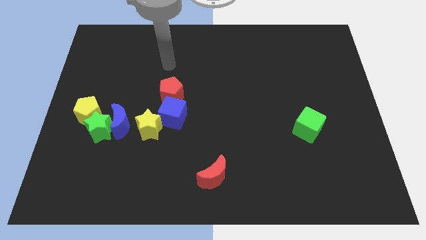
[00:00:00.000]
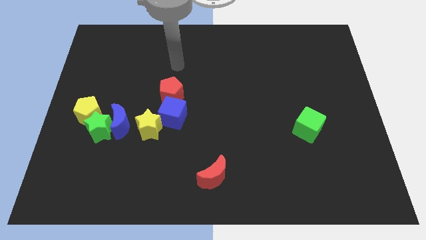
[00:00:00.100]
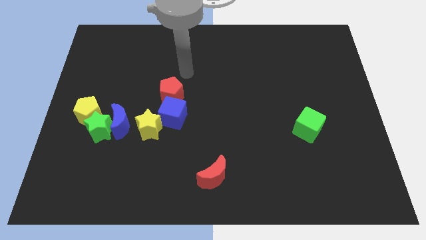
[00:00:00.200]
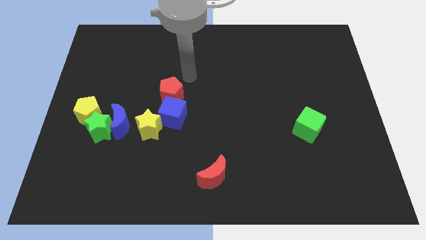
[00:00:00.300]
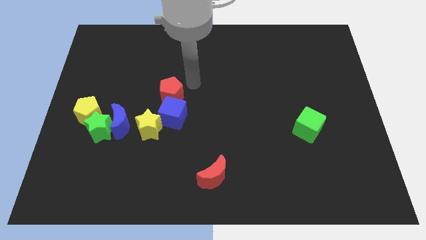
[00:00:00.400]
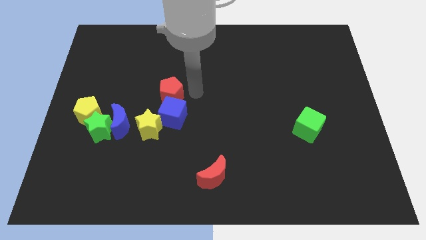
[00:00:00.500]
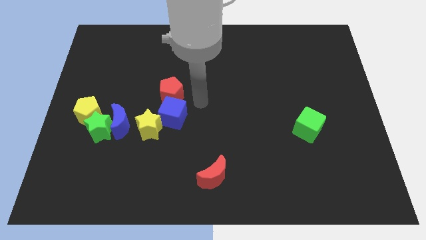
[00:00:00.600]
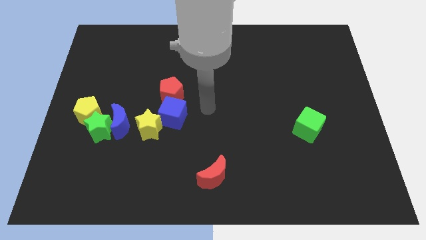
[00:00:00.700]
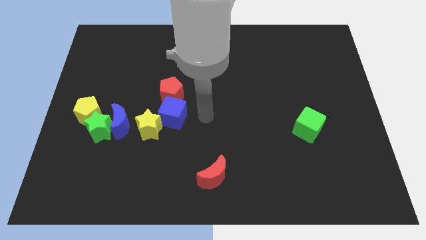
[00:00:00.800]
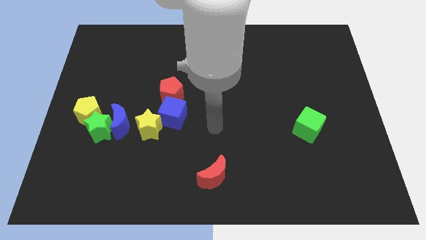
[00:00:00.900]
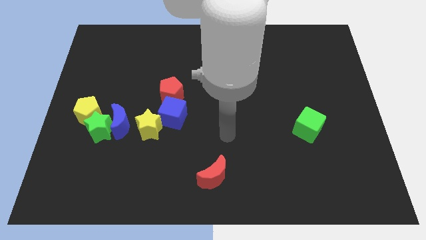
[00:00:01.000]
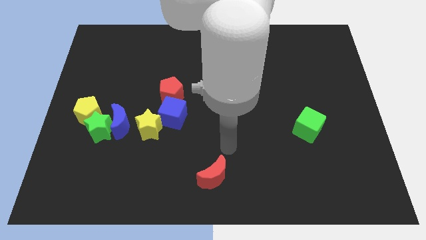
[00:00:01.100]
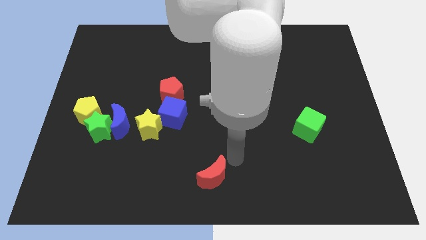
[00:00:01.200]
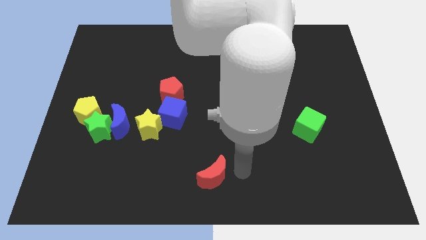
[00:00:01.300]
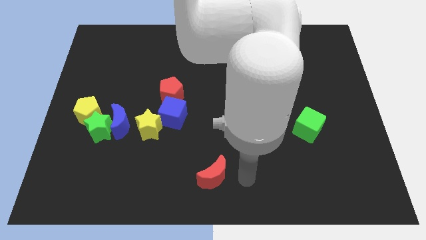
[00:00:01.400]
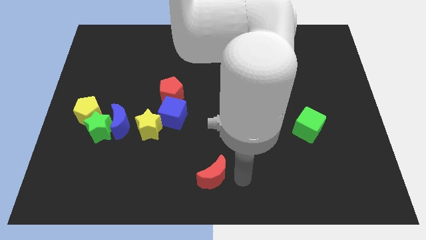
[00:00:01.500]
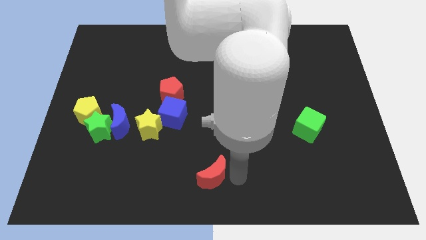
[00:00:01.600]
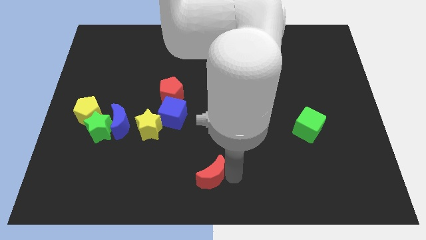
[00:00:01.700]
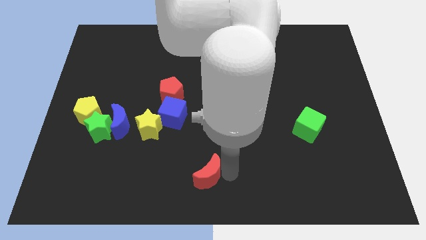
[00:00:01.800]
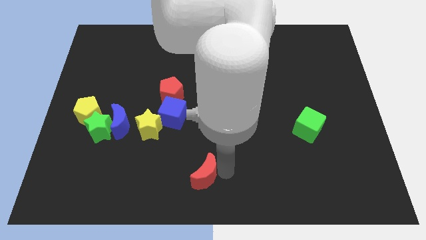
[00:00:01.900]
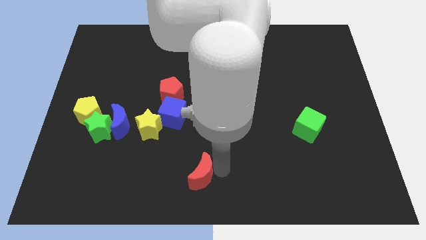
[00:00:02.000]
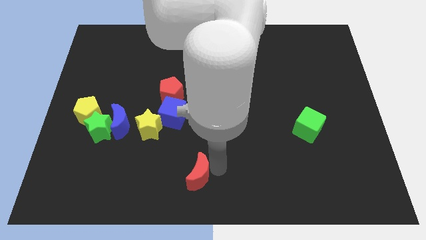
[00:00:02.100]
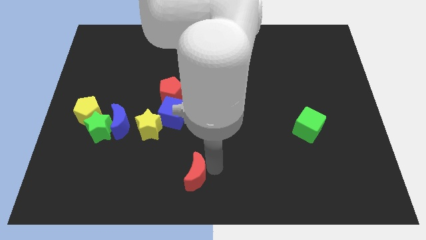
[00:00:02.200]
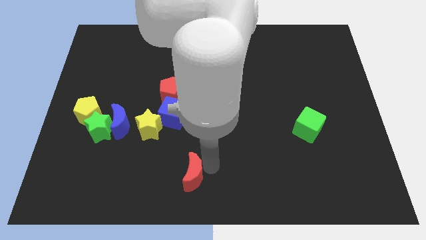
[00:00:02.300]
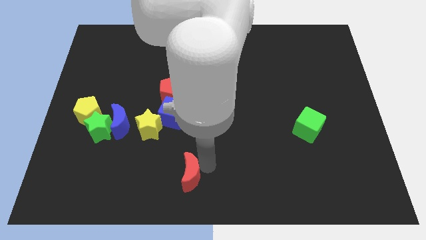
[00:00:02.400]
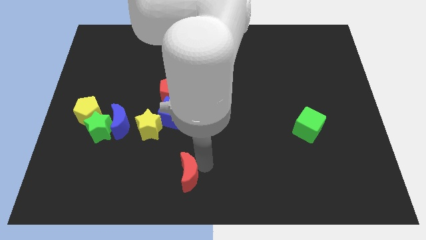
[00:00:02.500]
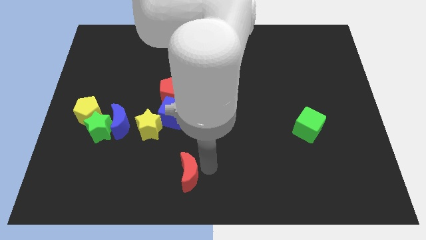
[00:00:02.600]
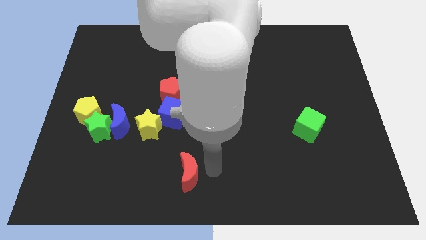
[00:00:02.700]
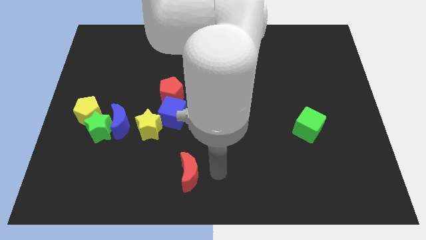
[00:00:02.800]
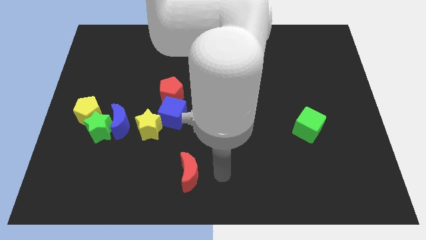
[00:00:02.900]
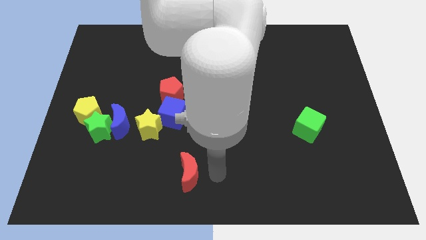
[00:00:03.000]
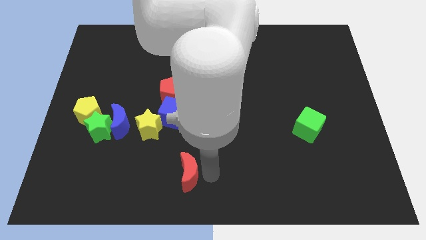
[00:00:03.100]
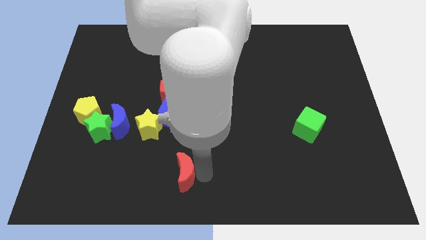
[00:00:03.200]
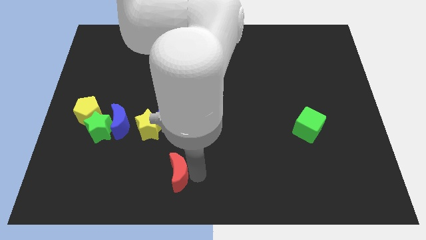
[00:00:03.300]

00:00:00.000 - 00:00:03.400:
push the red moon somewhat to the left

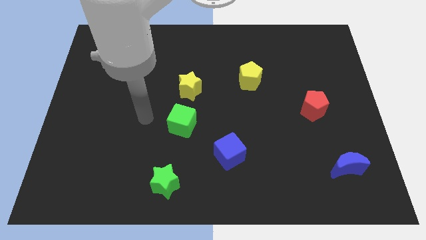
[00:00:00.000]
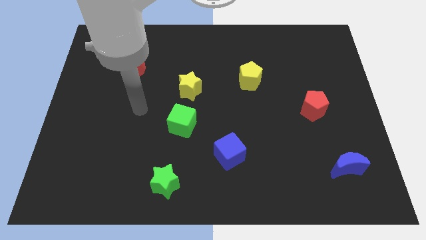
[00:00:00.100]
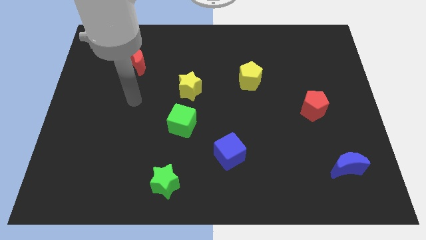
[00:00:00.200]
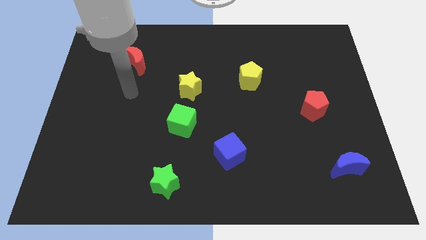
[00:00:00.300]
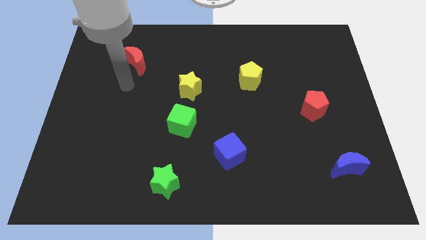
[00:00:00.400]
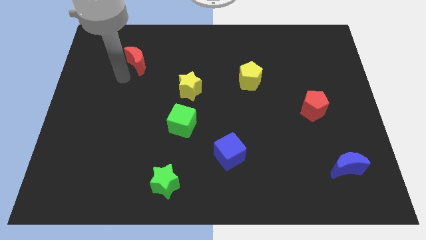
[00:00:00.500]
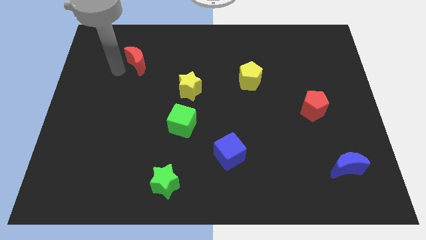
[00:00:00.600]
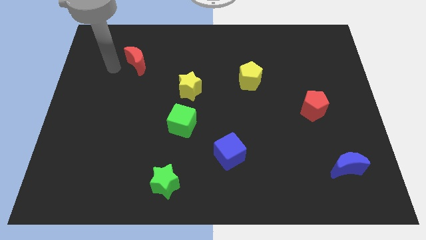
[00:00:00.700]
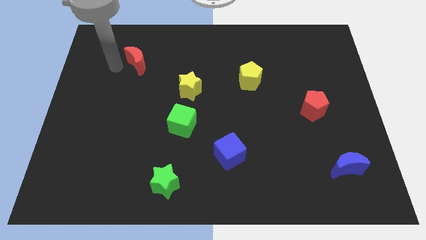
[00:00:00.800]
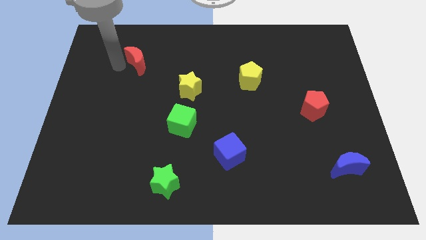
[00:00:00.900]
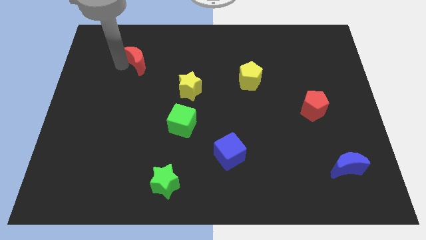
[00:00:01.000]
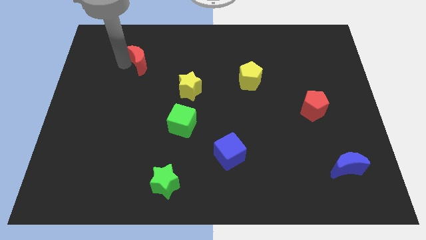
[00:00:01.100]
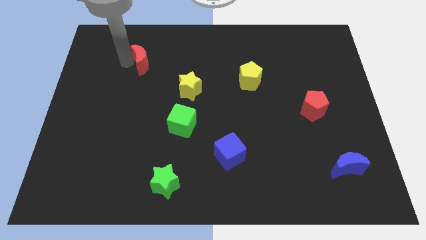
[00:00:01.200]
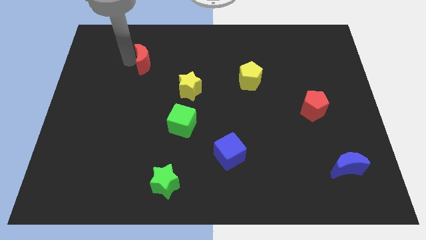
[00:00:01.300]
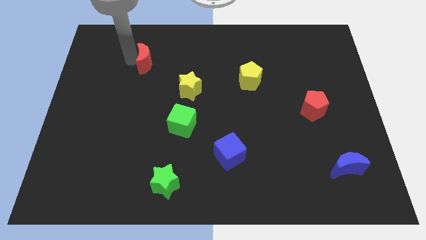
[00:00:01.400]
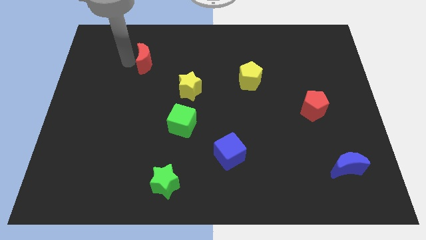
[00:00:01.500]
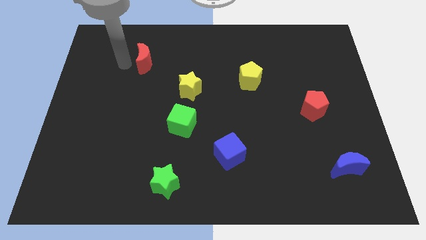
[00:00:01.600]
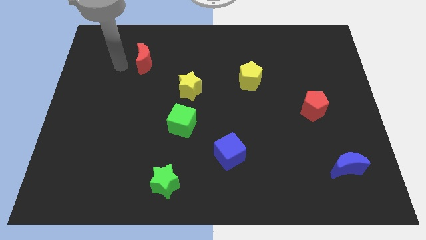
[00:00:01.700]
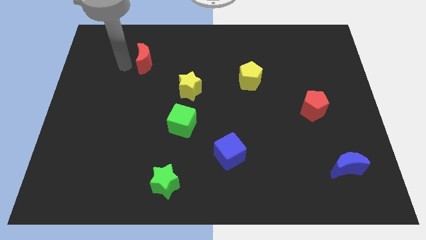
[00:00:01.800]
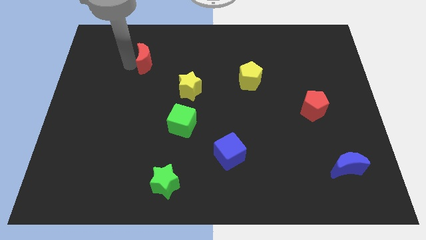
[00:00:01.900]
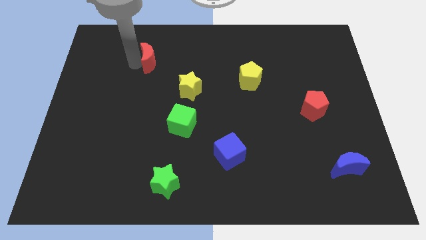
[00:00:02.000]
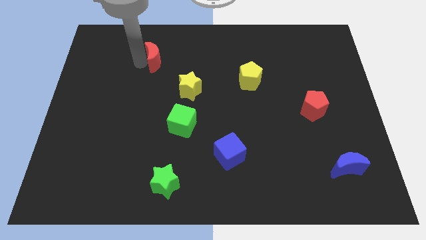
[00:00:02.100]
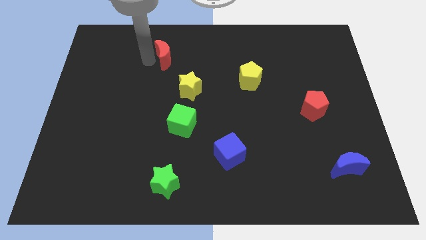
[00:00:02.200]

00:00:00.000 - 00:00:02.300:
push the red moon to the right a little

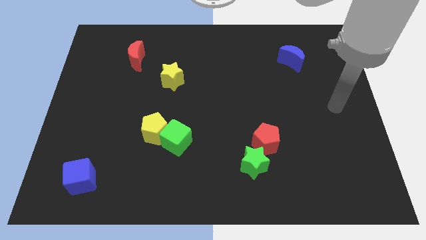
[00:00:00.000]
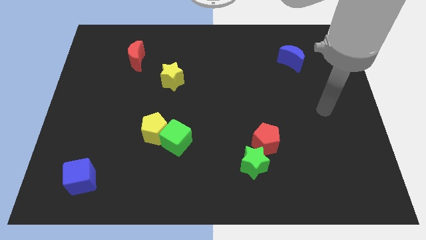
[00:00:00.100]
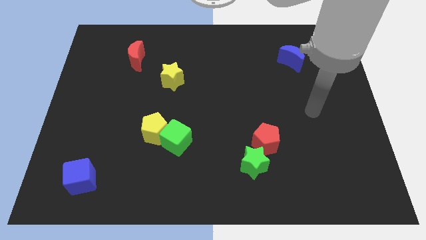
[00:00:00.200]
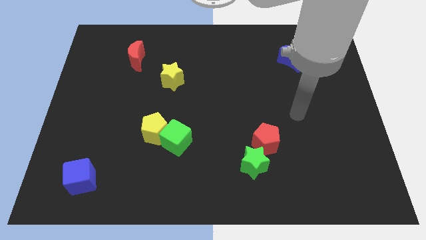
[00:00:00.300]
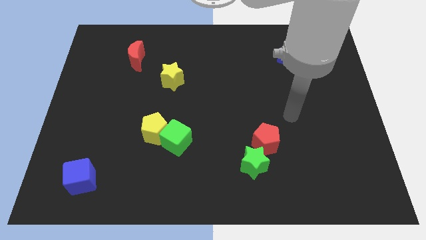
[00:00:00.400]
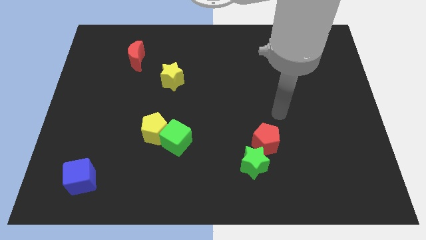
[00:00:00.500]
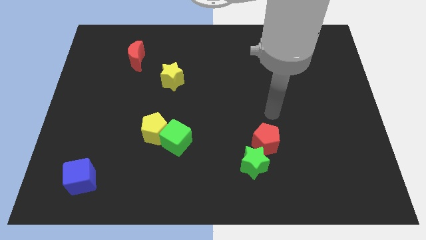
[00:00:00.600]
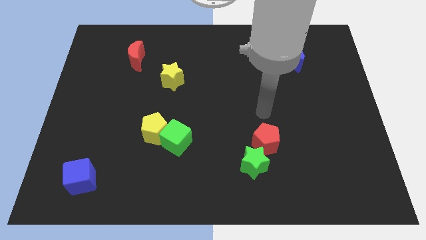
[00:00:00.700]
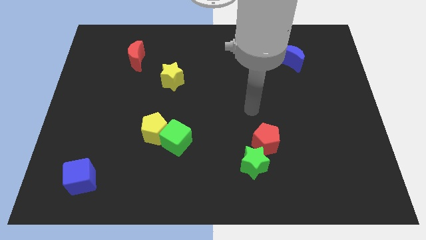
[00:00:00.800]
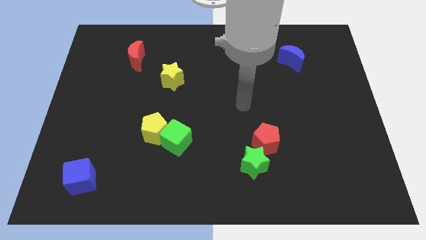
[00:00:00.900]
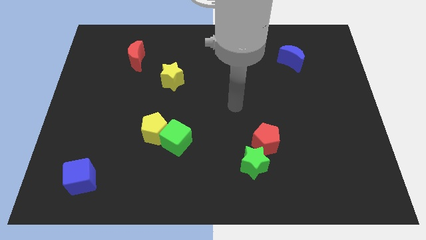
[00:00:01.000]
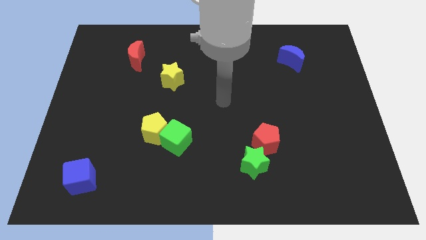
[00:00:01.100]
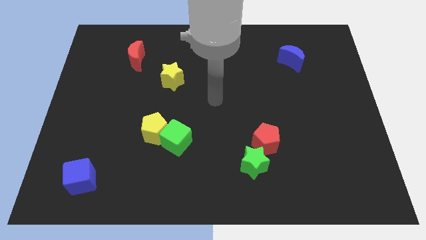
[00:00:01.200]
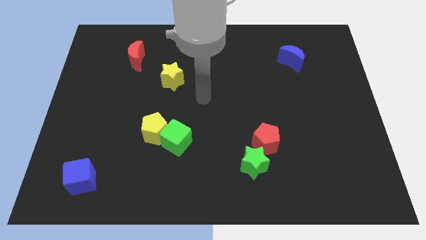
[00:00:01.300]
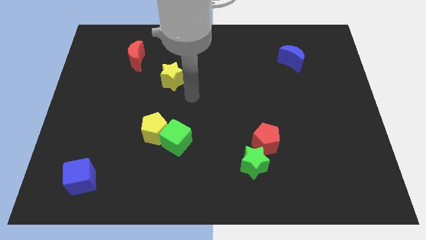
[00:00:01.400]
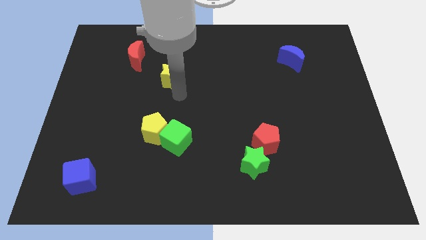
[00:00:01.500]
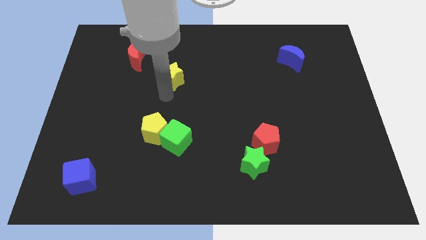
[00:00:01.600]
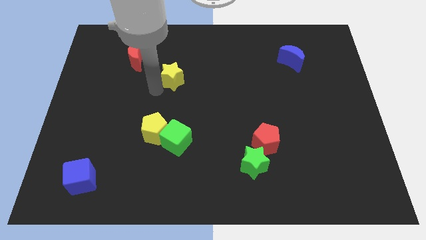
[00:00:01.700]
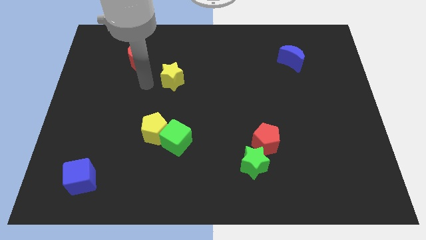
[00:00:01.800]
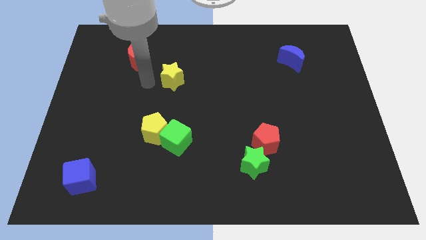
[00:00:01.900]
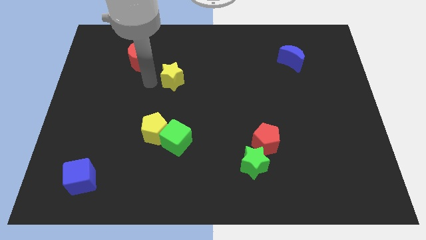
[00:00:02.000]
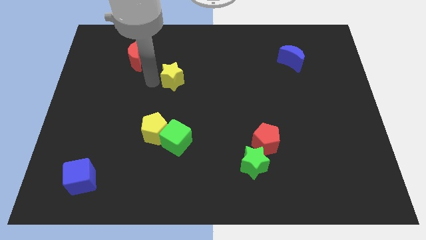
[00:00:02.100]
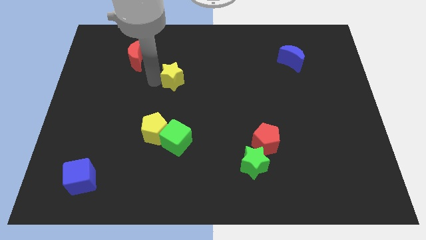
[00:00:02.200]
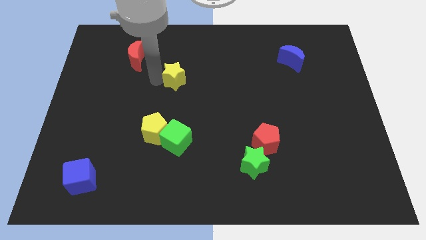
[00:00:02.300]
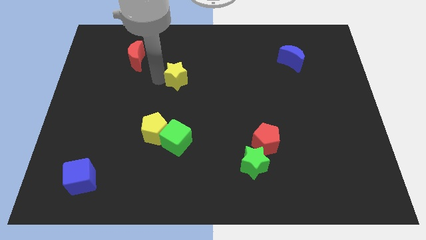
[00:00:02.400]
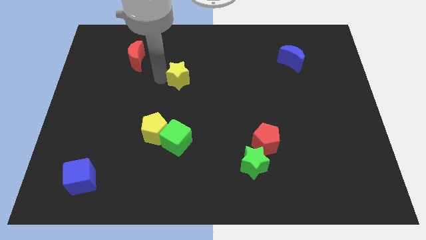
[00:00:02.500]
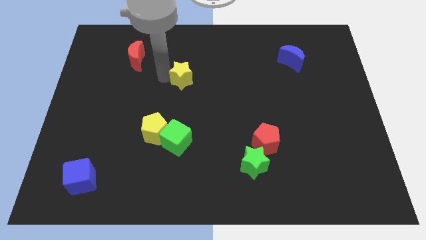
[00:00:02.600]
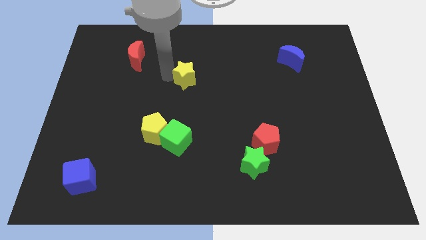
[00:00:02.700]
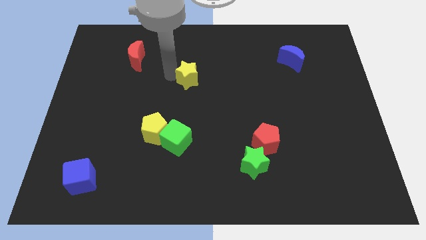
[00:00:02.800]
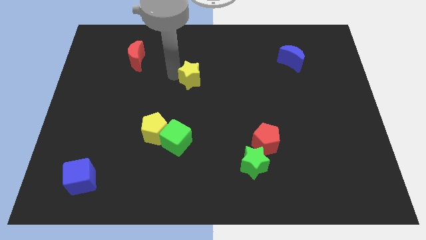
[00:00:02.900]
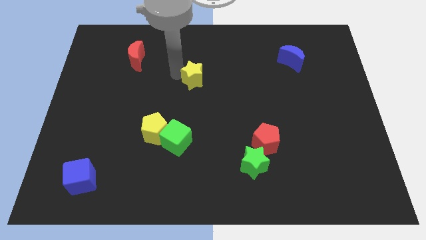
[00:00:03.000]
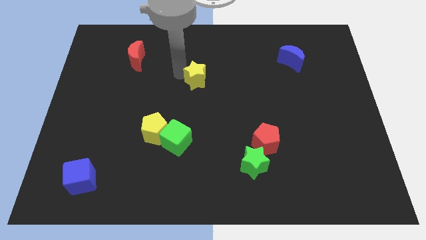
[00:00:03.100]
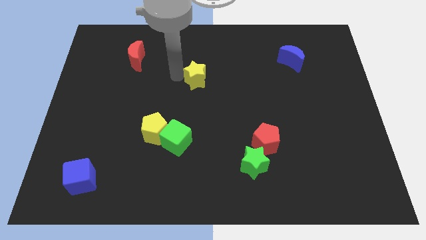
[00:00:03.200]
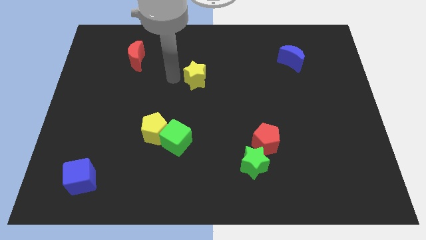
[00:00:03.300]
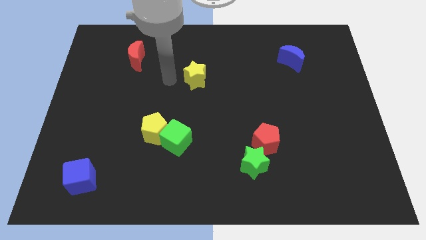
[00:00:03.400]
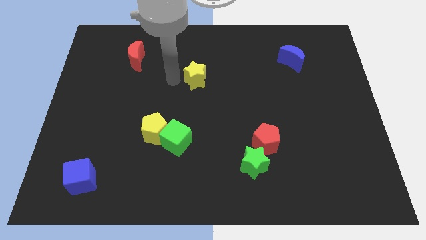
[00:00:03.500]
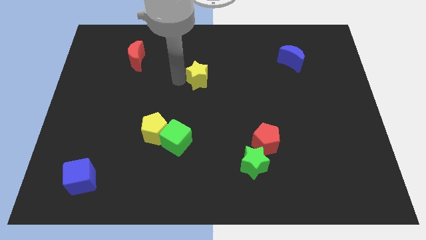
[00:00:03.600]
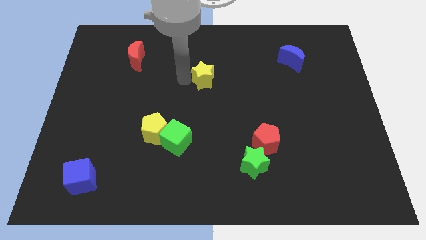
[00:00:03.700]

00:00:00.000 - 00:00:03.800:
move the yellow star somewhat to the right
